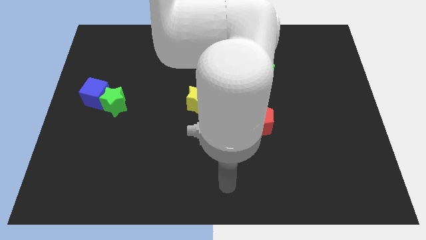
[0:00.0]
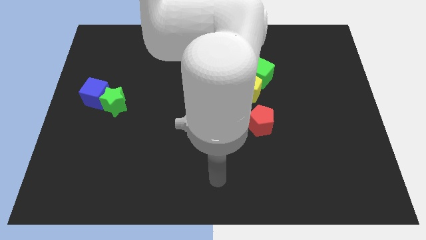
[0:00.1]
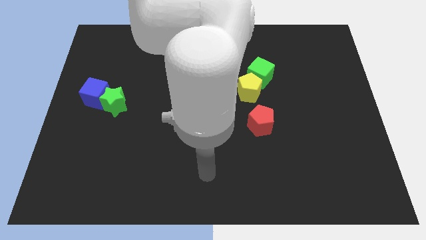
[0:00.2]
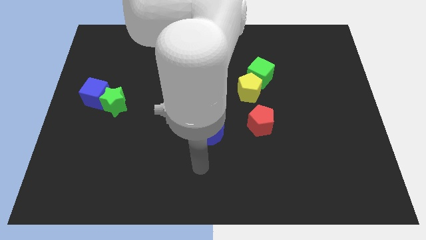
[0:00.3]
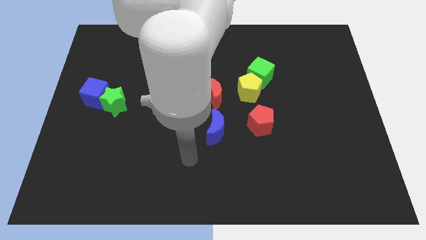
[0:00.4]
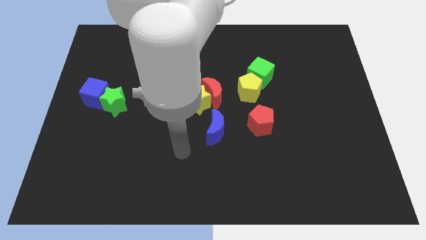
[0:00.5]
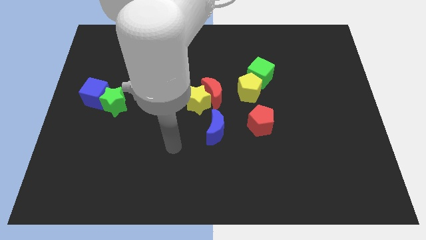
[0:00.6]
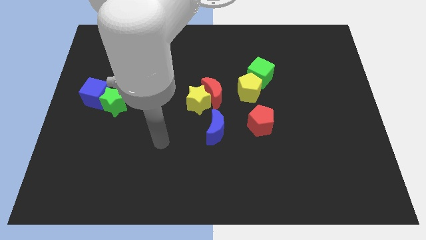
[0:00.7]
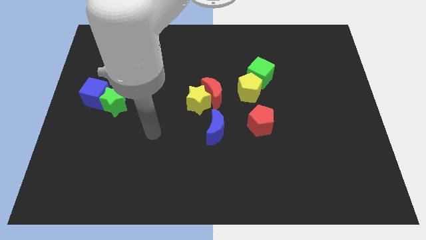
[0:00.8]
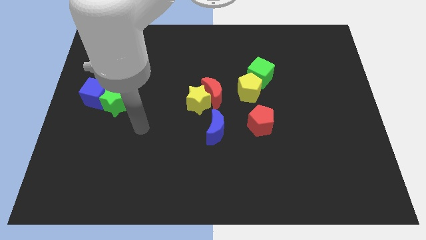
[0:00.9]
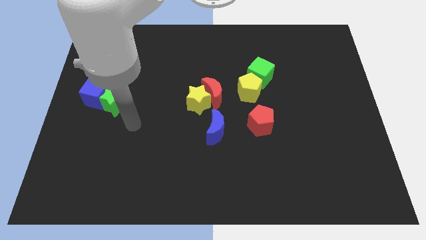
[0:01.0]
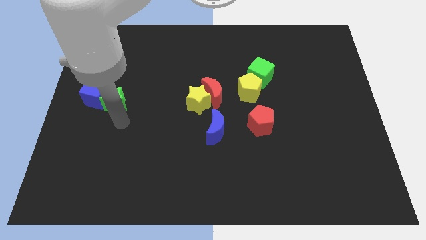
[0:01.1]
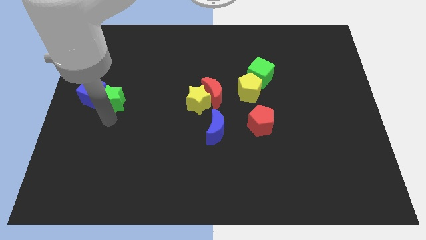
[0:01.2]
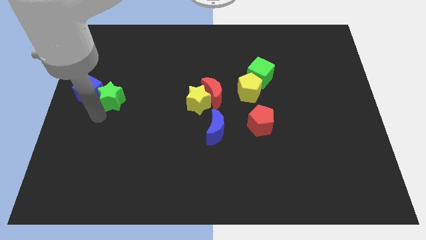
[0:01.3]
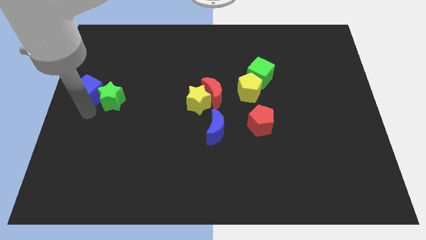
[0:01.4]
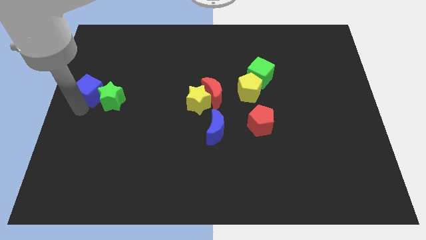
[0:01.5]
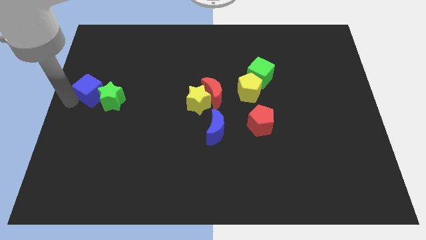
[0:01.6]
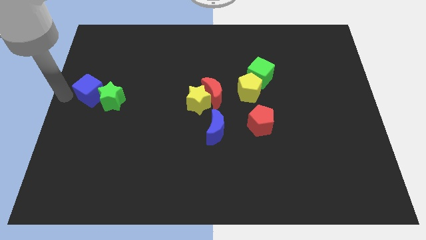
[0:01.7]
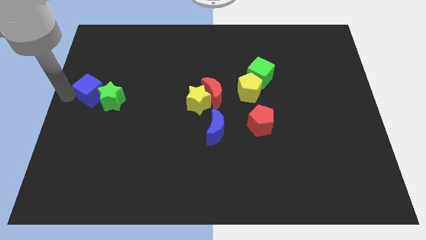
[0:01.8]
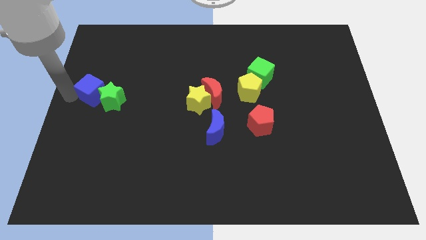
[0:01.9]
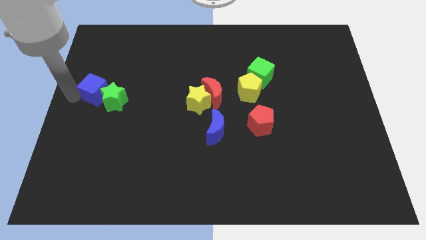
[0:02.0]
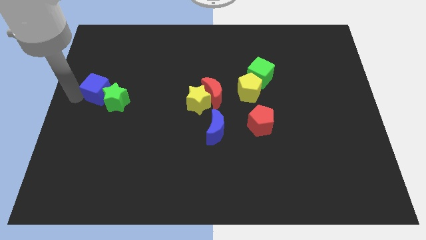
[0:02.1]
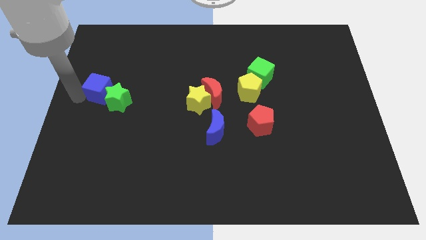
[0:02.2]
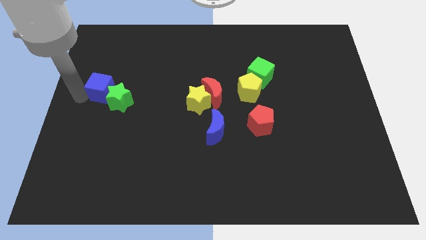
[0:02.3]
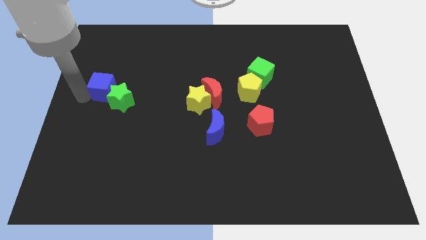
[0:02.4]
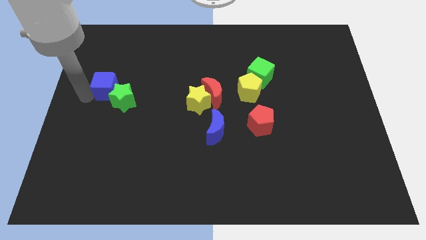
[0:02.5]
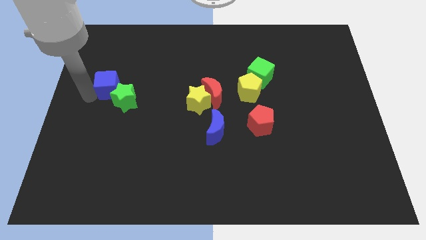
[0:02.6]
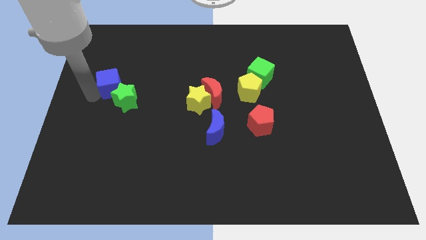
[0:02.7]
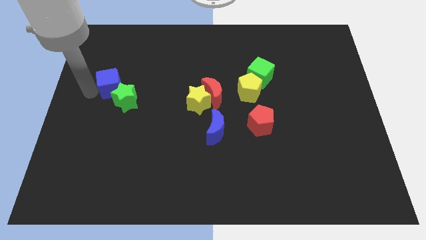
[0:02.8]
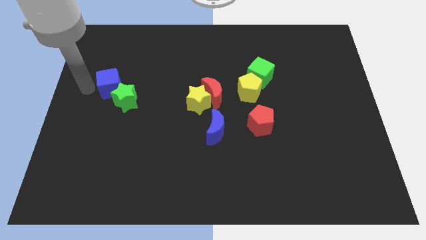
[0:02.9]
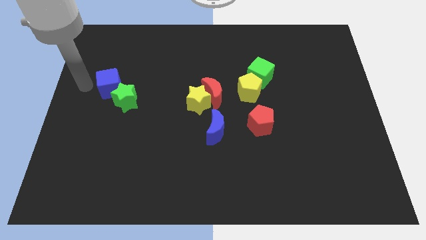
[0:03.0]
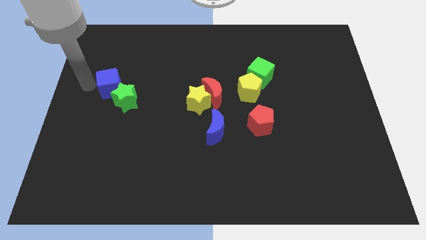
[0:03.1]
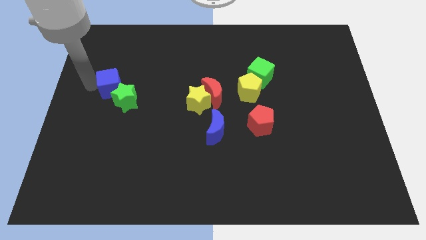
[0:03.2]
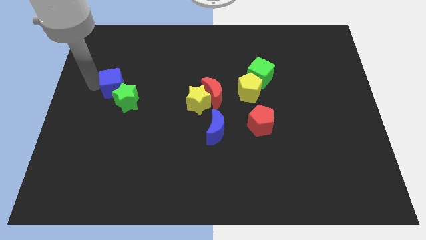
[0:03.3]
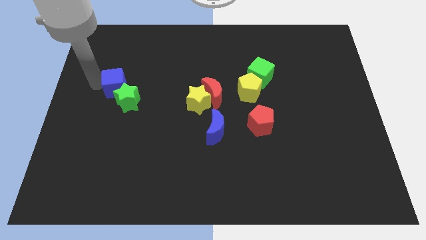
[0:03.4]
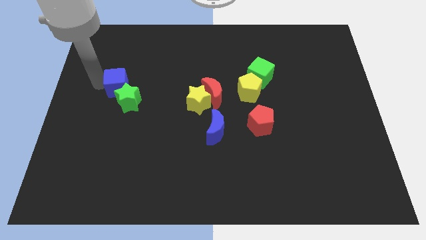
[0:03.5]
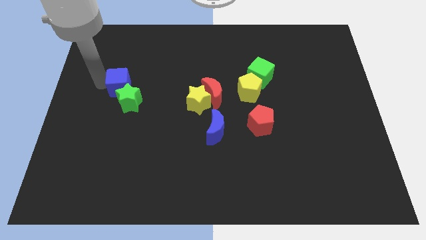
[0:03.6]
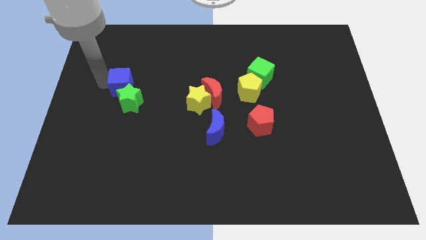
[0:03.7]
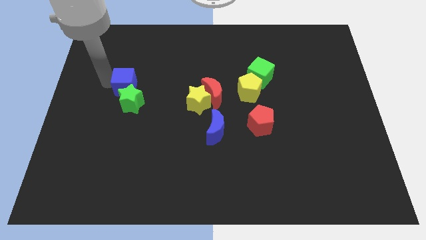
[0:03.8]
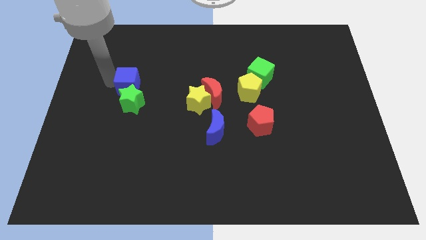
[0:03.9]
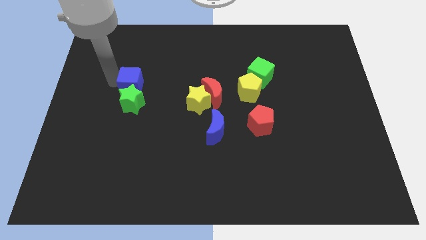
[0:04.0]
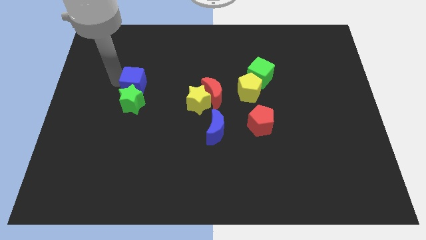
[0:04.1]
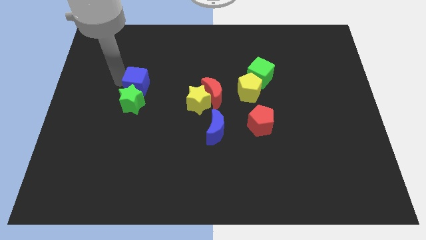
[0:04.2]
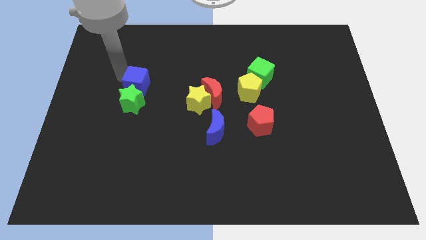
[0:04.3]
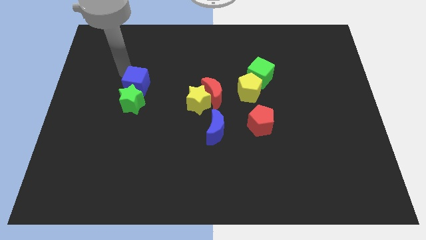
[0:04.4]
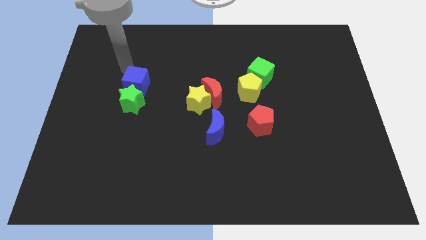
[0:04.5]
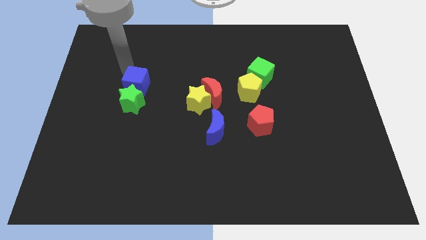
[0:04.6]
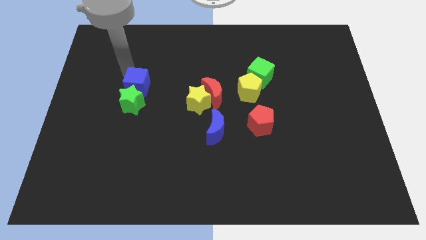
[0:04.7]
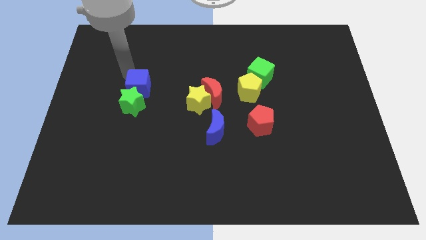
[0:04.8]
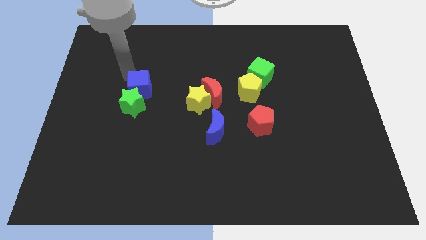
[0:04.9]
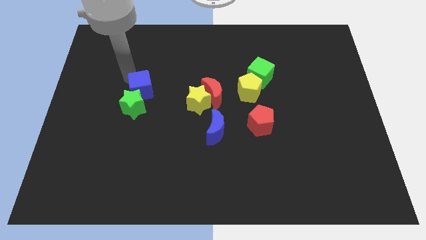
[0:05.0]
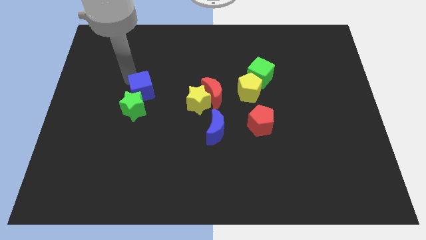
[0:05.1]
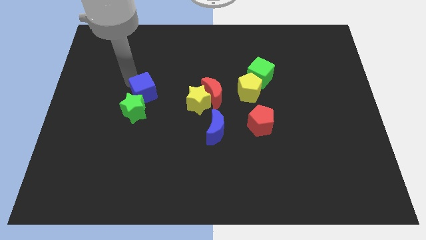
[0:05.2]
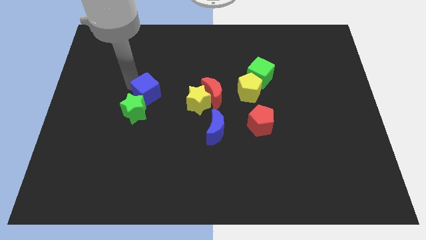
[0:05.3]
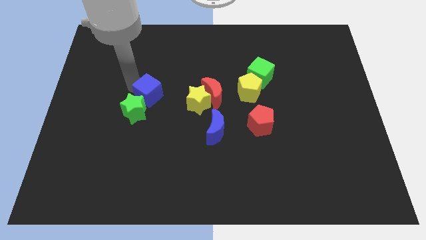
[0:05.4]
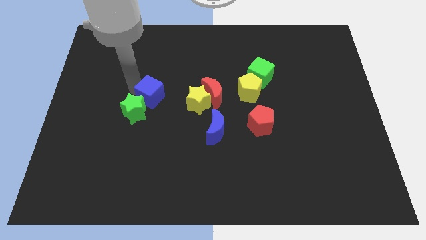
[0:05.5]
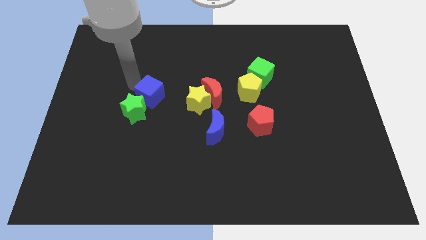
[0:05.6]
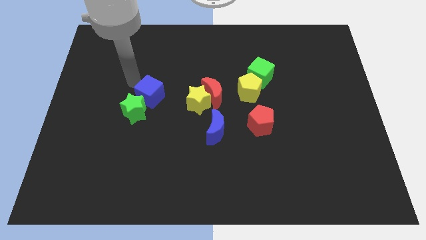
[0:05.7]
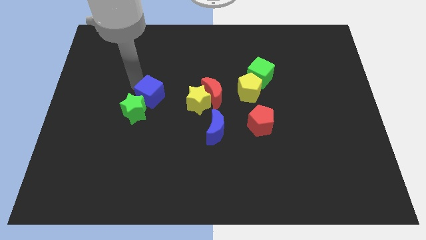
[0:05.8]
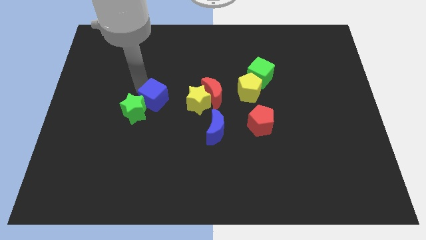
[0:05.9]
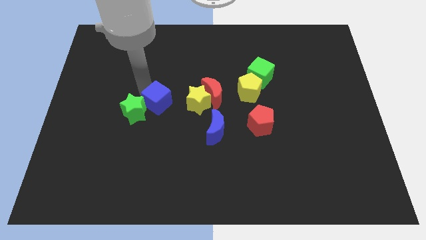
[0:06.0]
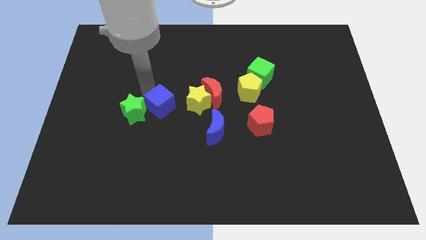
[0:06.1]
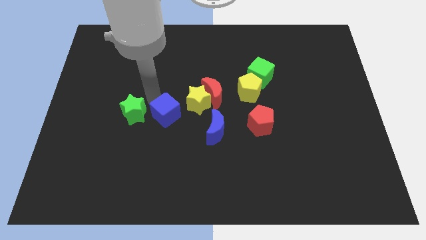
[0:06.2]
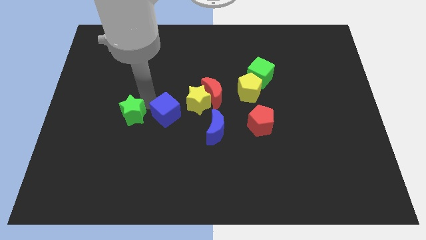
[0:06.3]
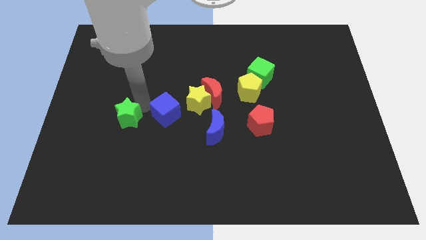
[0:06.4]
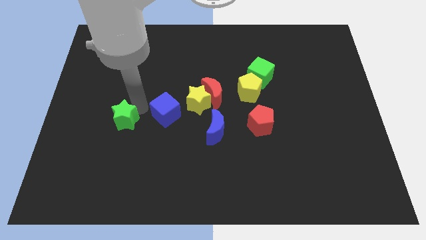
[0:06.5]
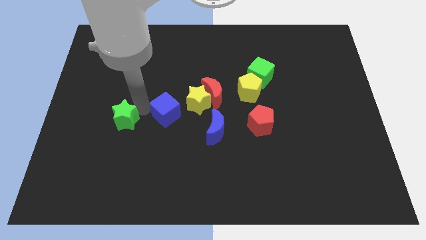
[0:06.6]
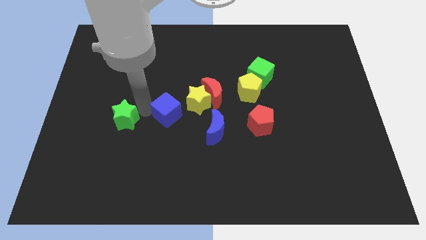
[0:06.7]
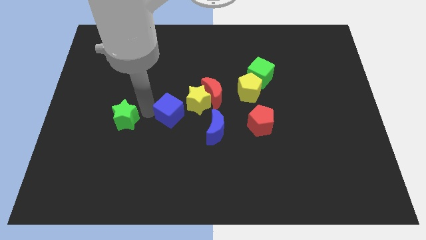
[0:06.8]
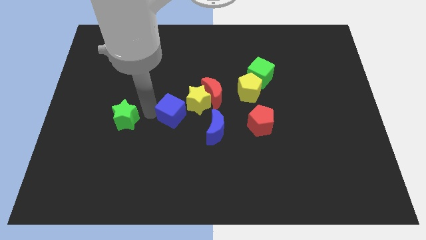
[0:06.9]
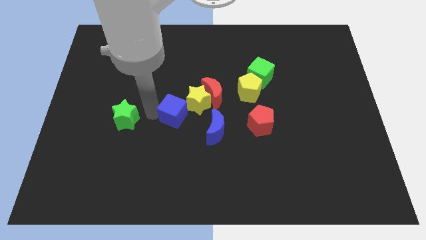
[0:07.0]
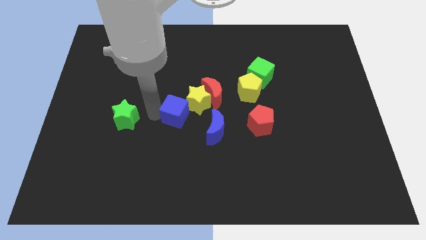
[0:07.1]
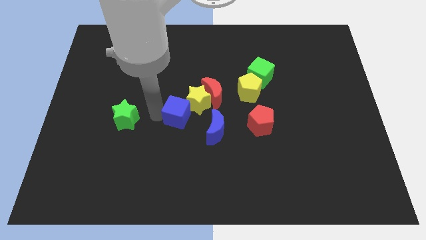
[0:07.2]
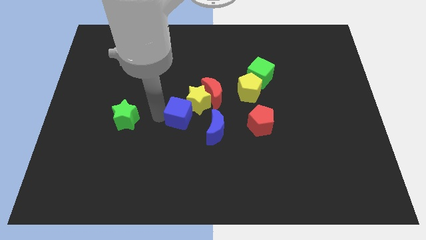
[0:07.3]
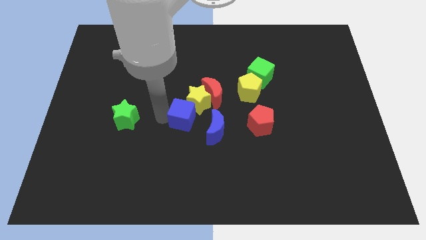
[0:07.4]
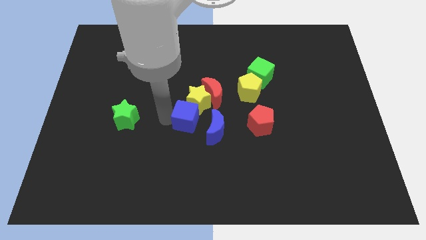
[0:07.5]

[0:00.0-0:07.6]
slide the blue cube to the right

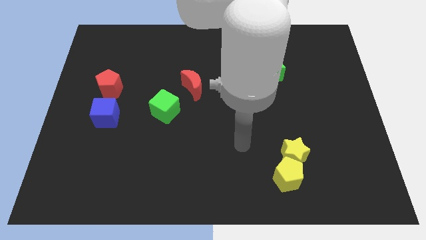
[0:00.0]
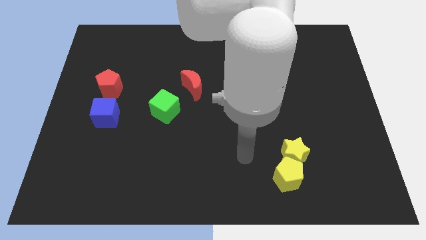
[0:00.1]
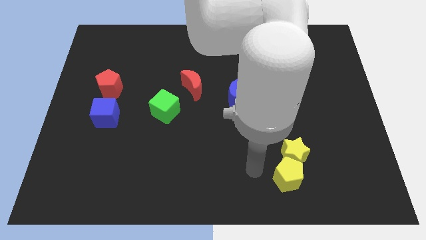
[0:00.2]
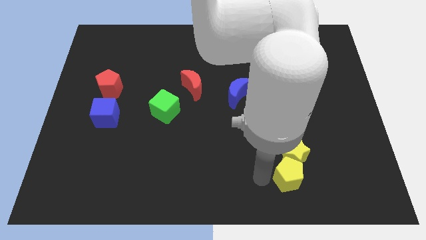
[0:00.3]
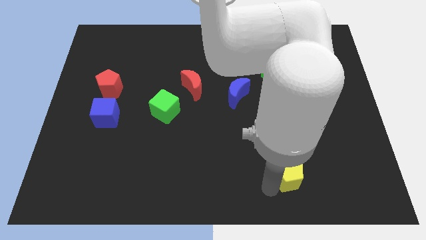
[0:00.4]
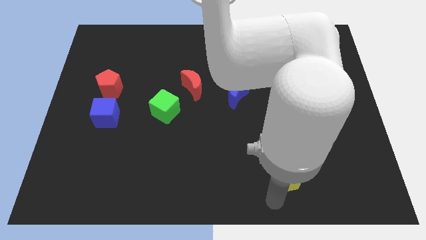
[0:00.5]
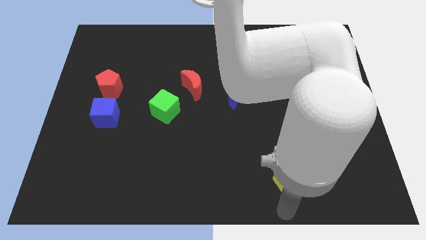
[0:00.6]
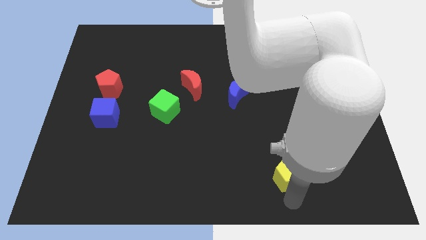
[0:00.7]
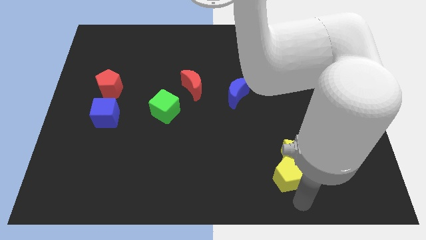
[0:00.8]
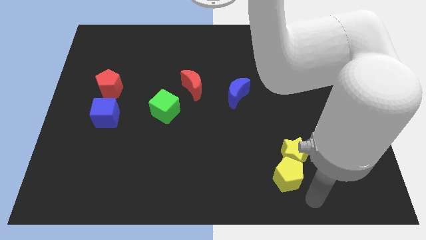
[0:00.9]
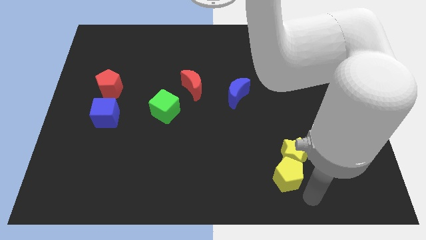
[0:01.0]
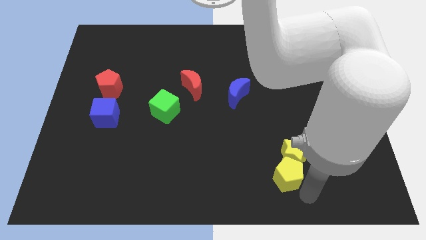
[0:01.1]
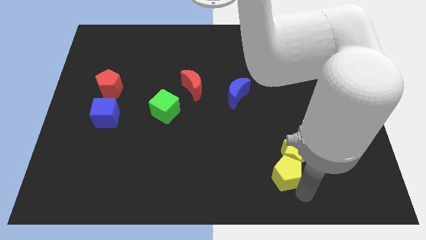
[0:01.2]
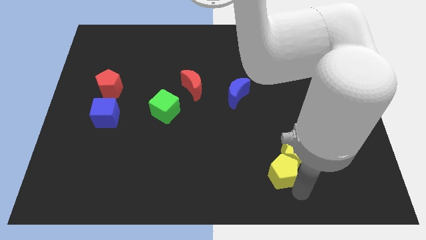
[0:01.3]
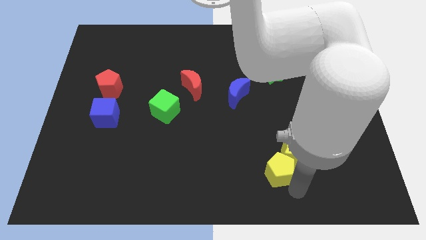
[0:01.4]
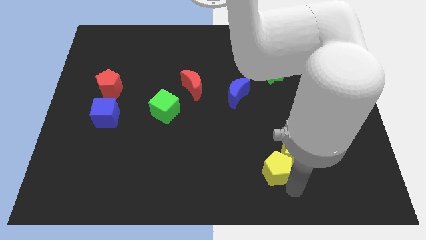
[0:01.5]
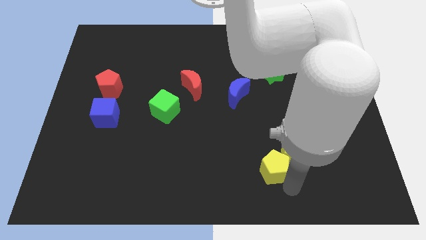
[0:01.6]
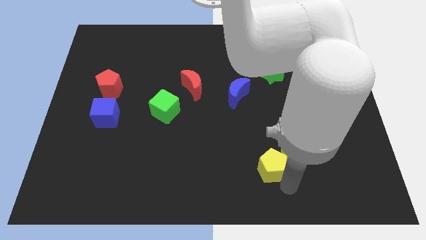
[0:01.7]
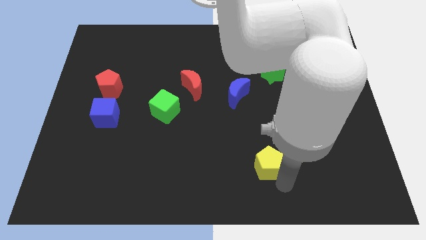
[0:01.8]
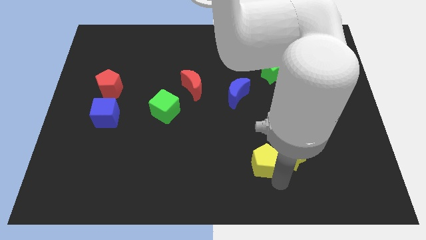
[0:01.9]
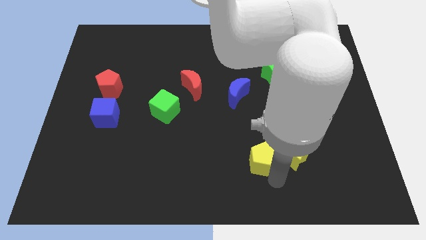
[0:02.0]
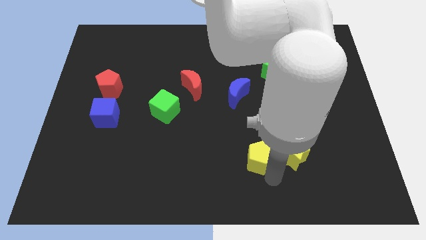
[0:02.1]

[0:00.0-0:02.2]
slide the yellow pentagon upwards and then left somewhat
